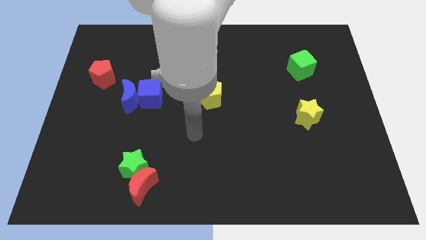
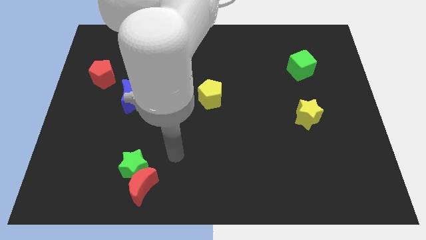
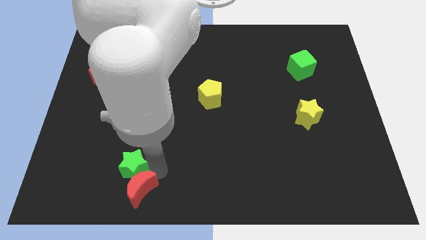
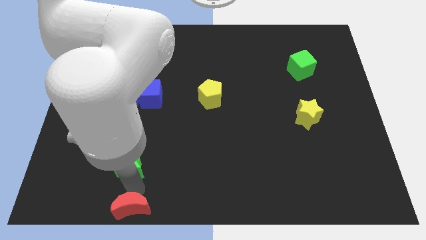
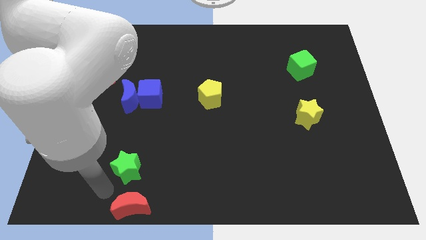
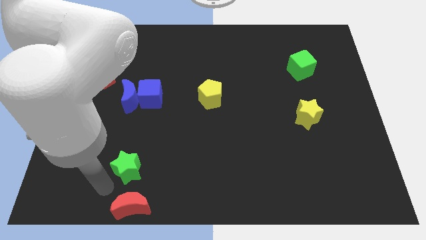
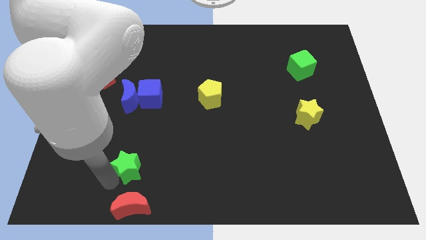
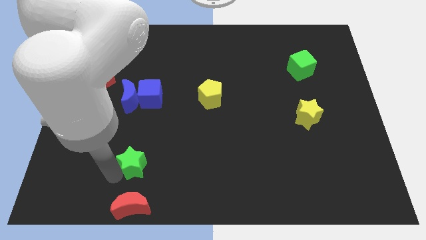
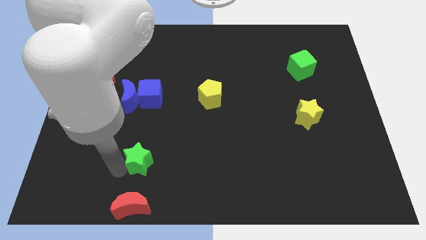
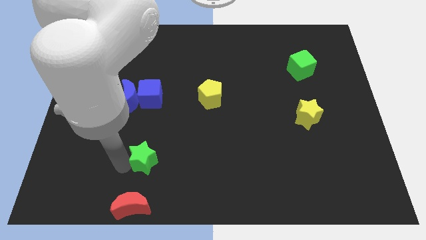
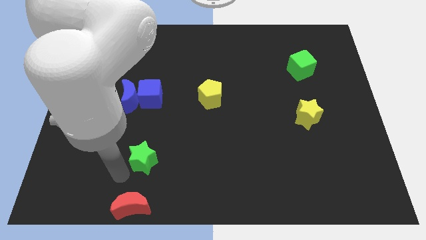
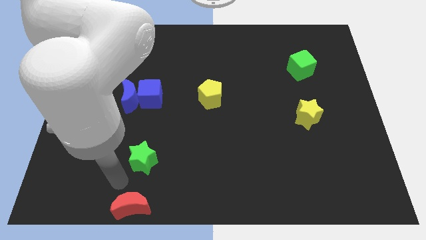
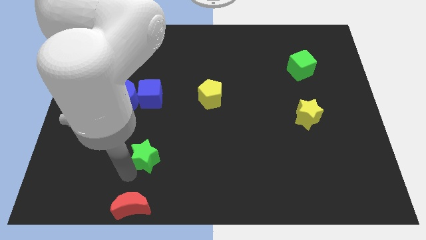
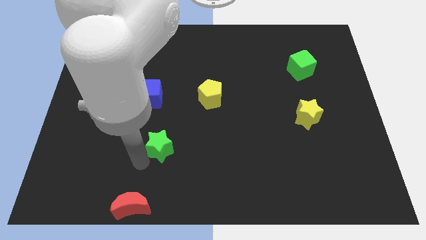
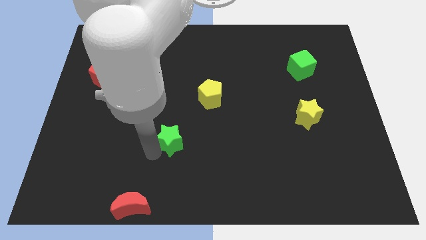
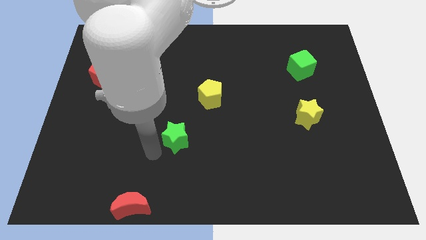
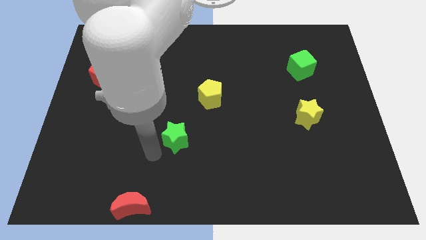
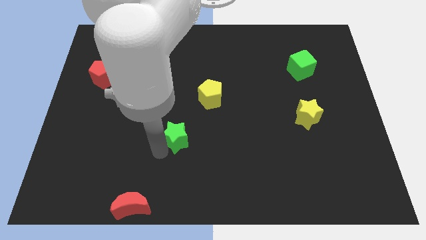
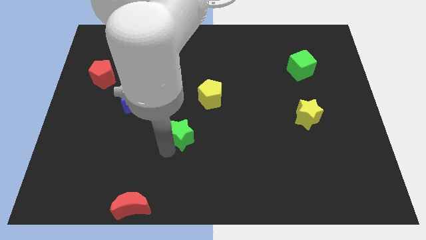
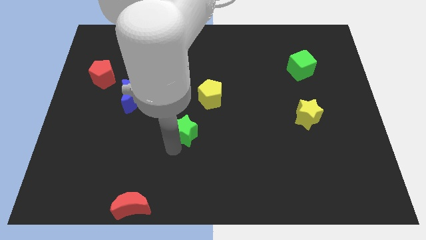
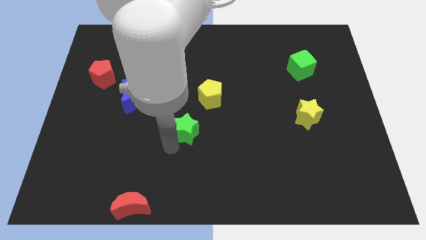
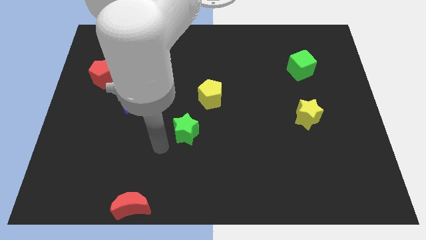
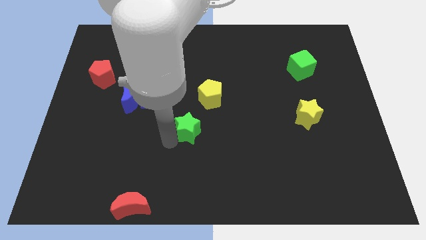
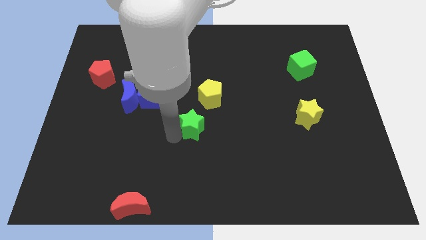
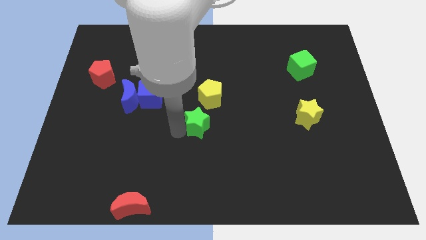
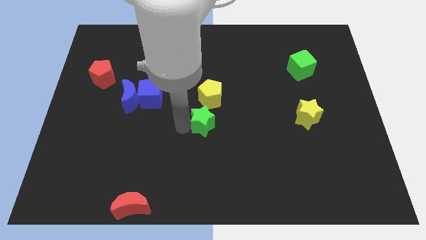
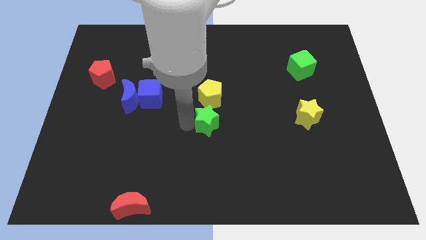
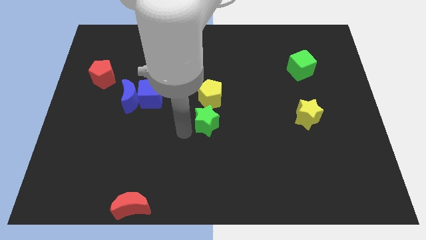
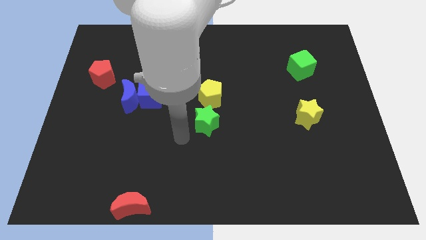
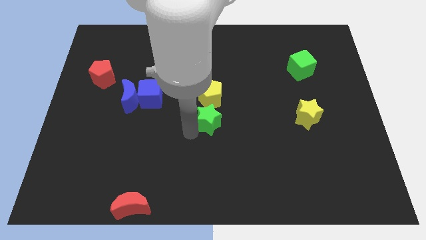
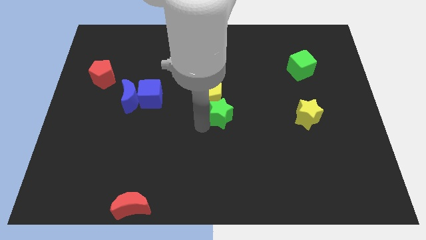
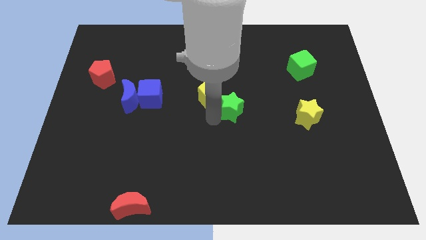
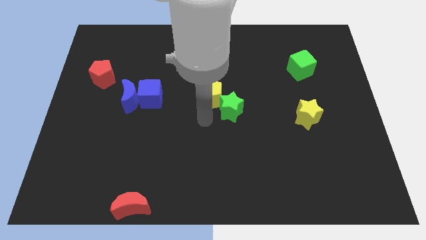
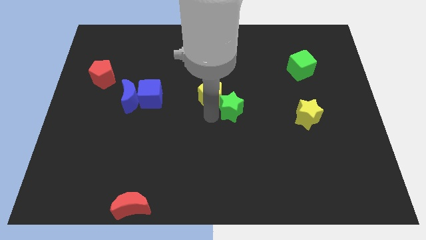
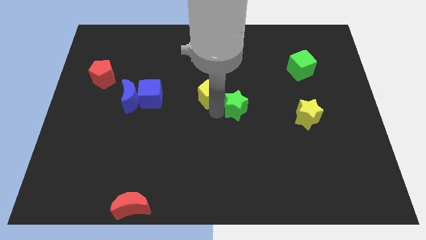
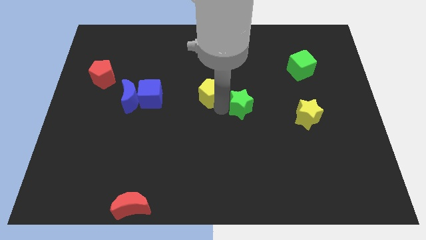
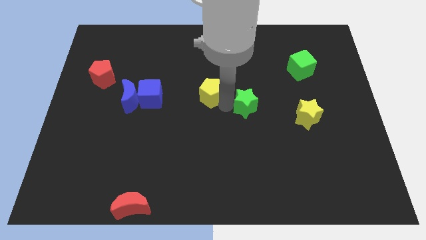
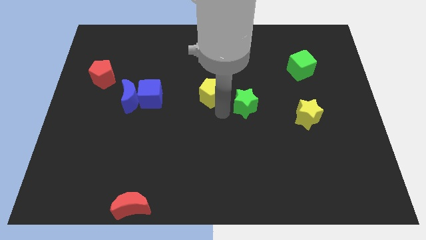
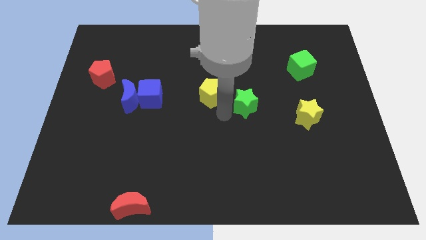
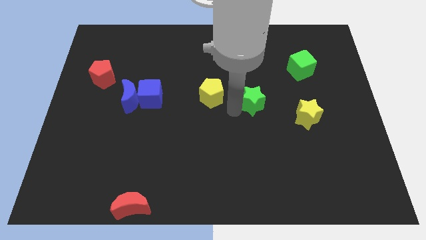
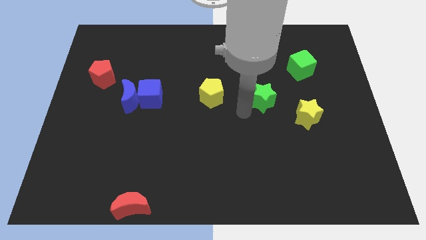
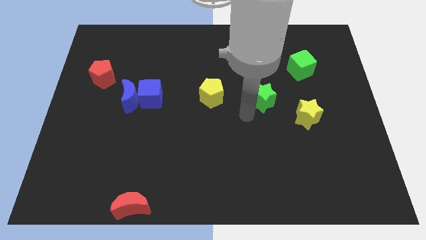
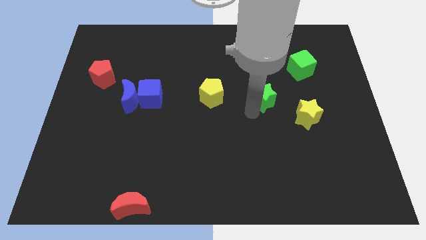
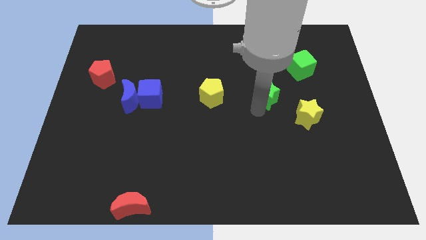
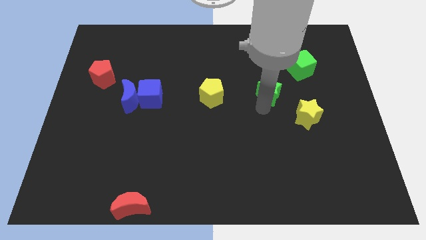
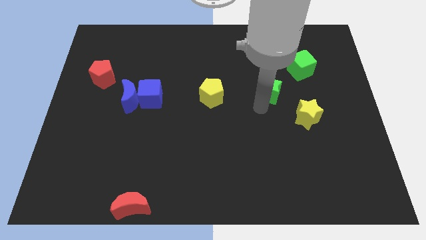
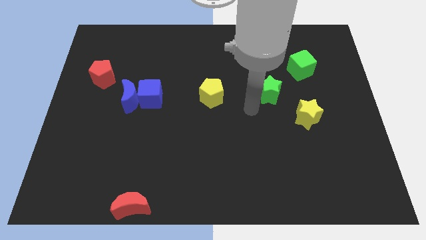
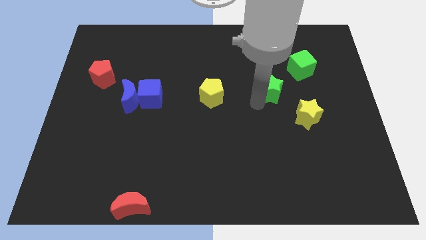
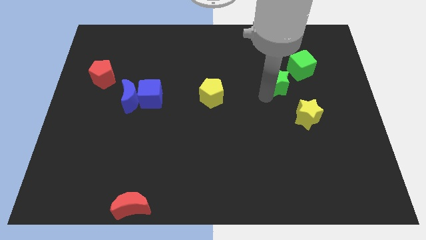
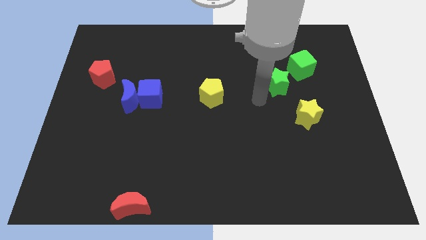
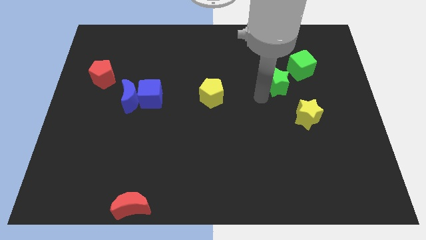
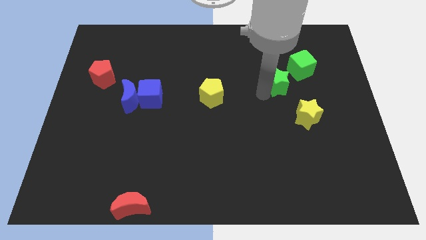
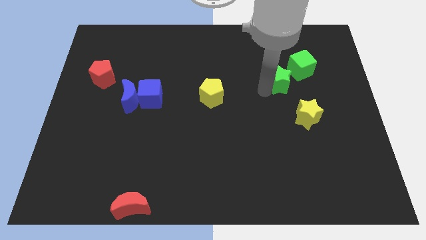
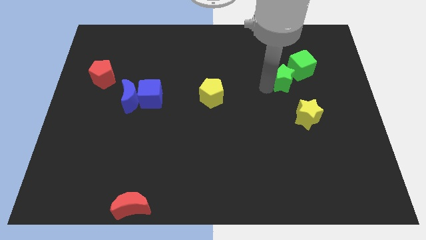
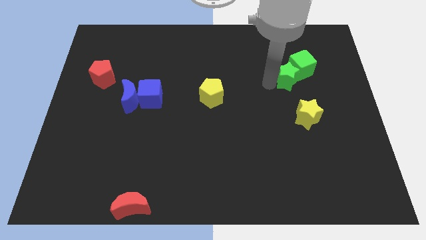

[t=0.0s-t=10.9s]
put the green star to the green cube

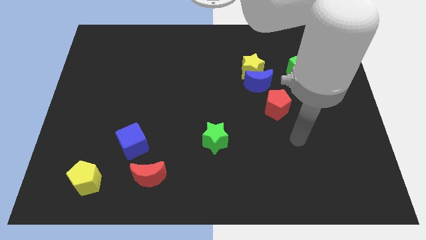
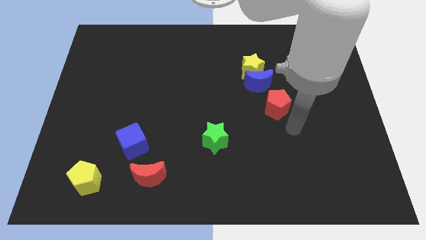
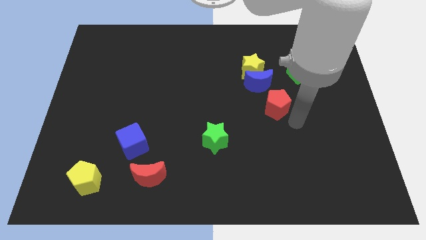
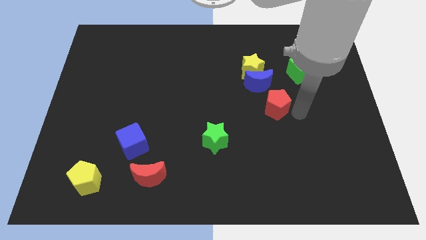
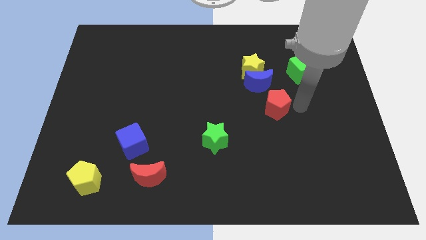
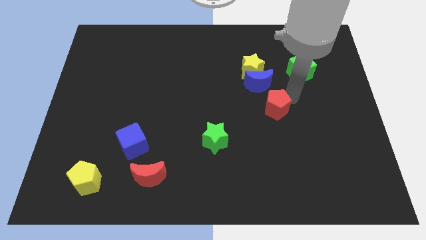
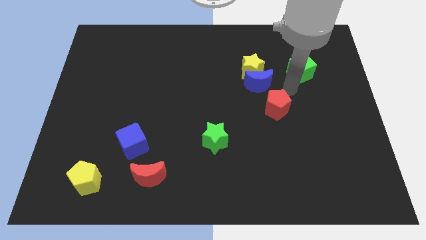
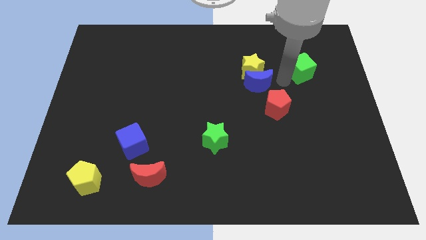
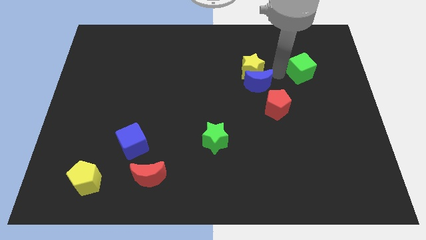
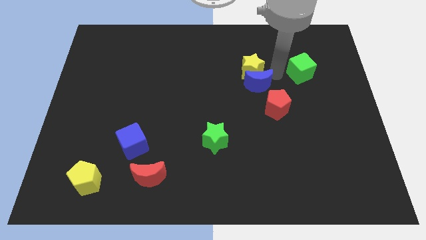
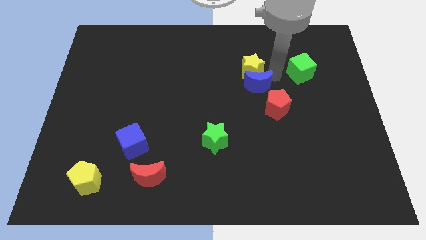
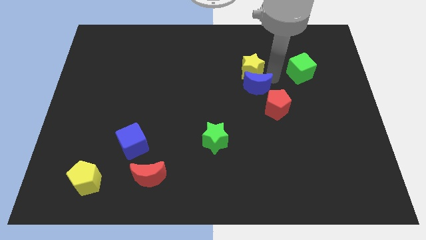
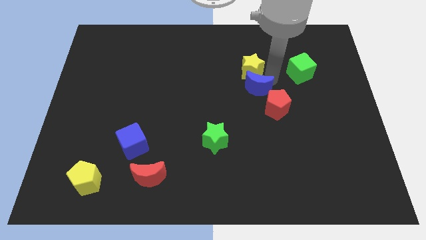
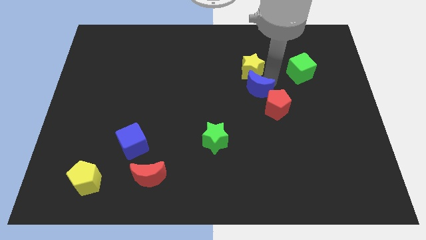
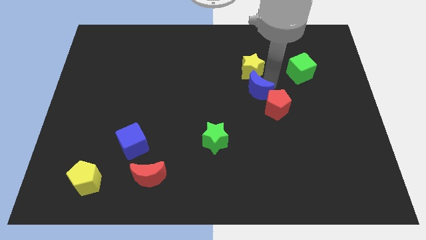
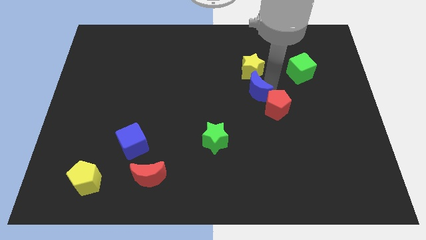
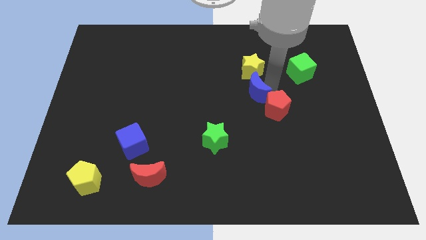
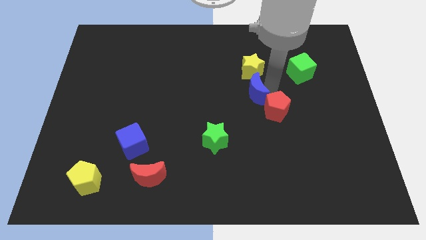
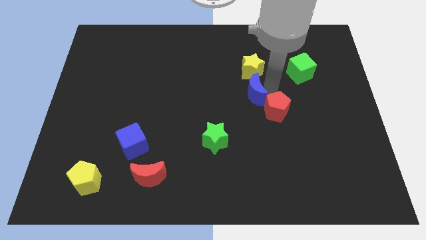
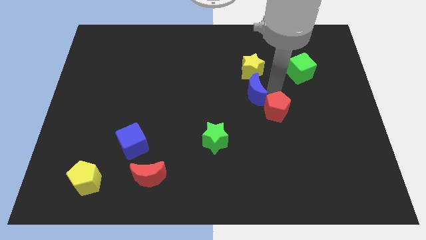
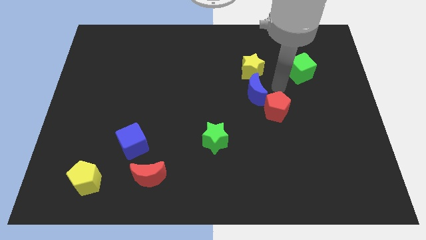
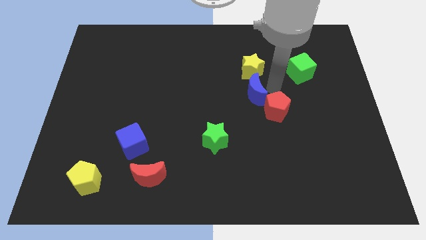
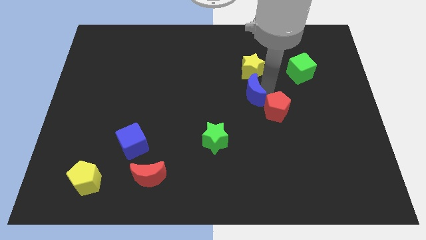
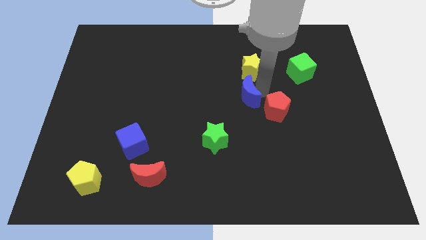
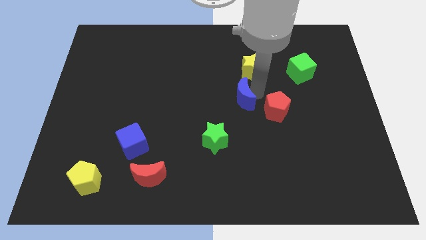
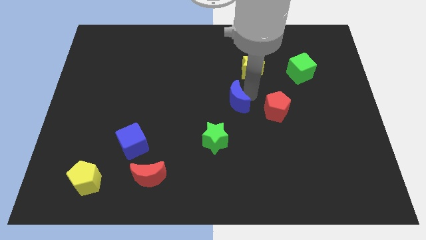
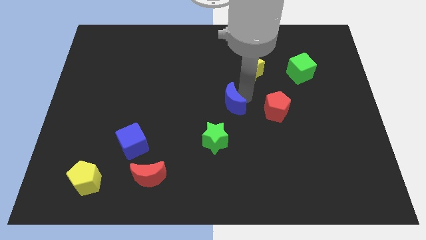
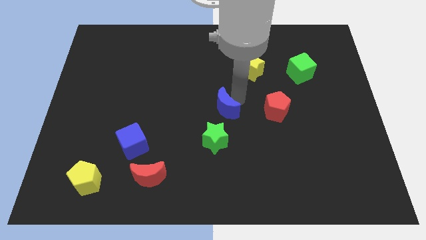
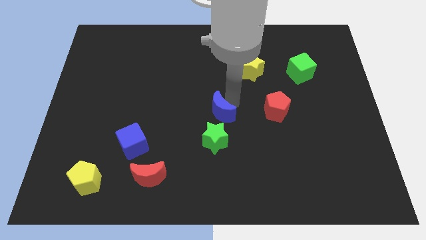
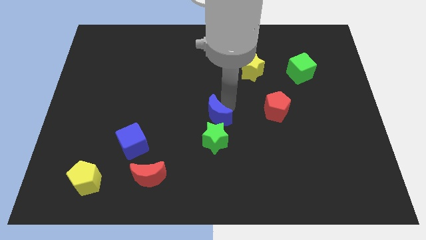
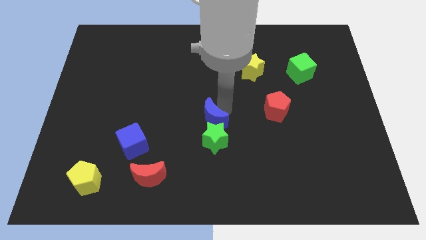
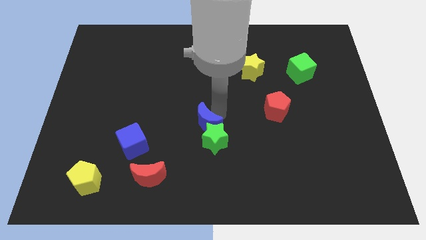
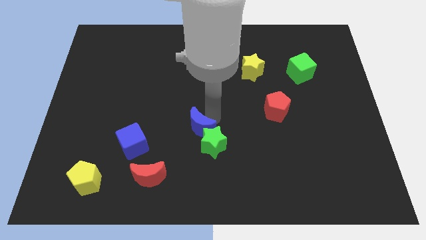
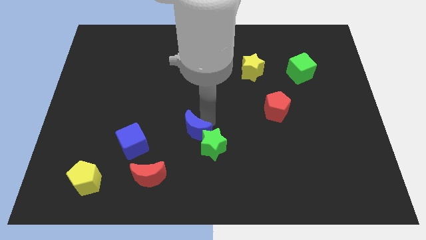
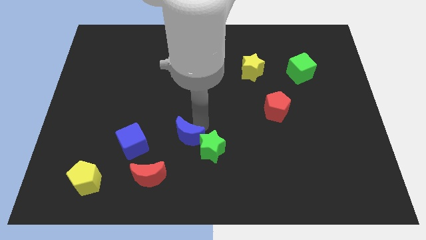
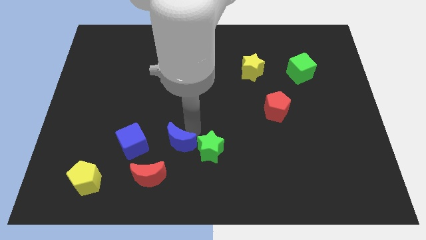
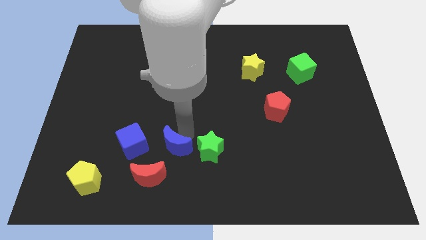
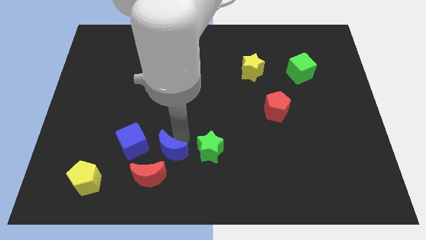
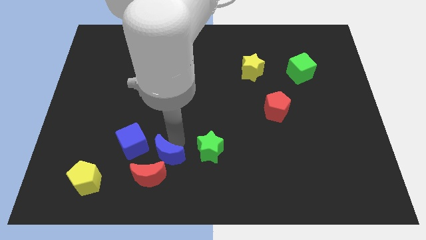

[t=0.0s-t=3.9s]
move the blue moon close to the red moon
